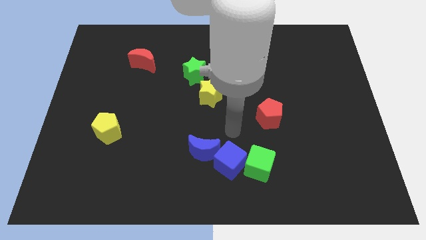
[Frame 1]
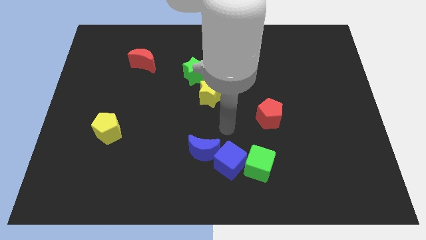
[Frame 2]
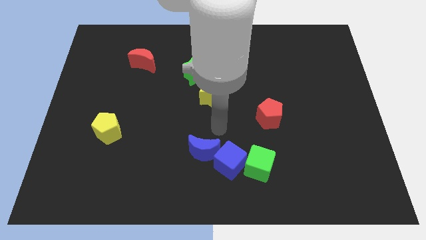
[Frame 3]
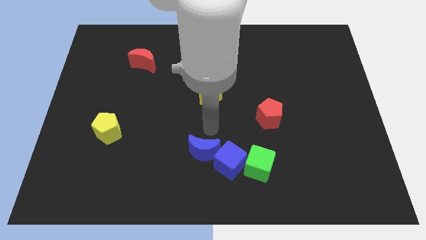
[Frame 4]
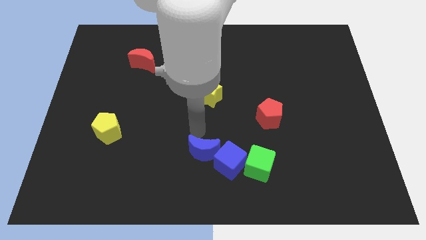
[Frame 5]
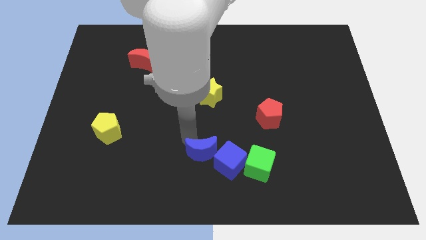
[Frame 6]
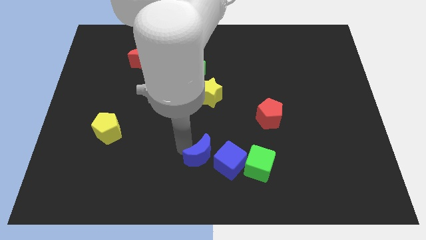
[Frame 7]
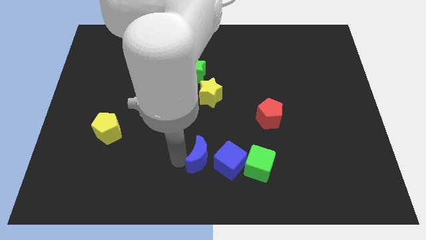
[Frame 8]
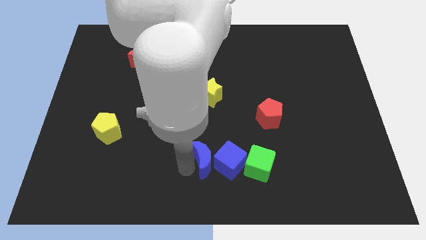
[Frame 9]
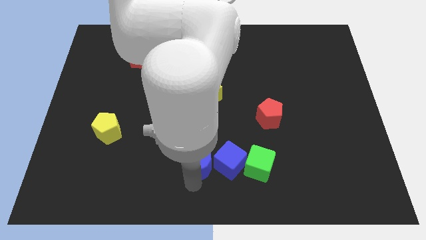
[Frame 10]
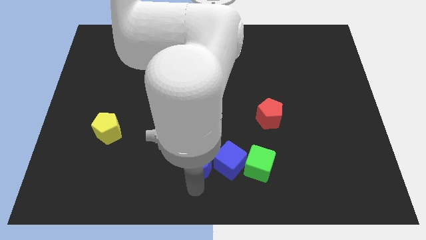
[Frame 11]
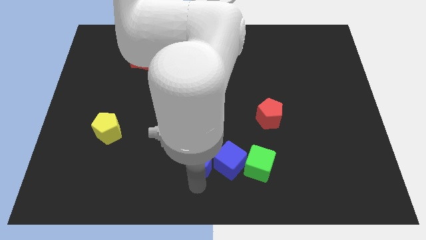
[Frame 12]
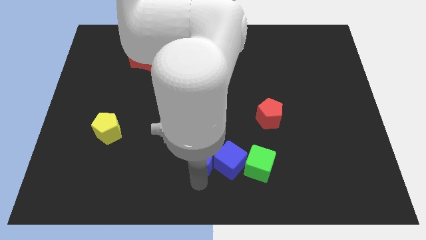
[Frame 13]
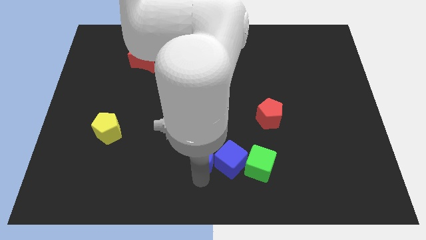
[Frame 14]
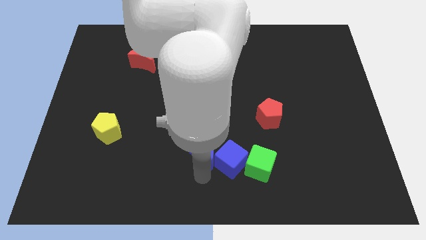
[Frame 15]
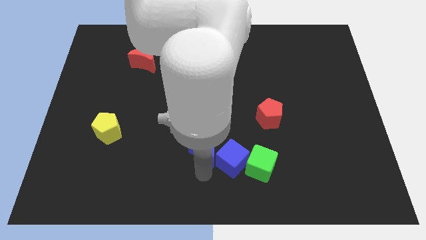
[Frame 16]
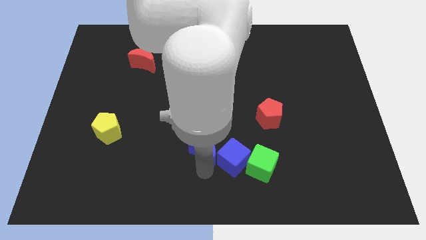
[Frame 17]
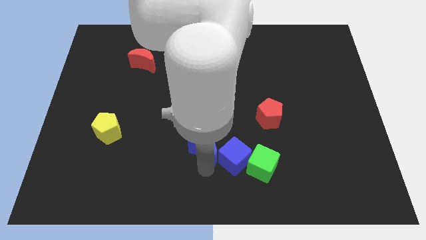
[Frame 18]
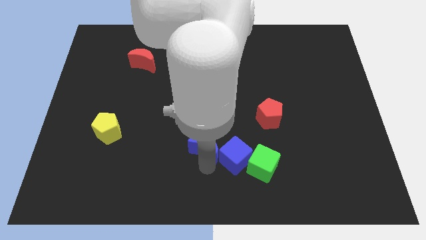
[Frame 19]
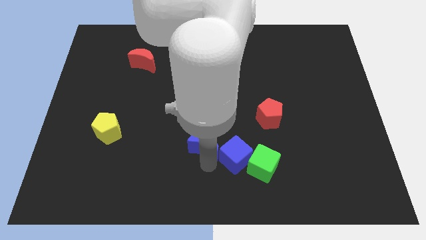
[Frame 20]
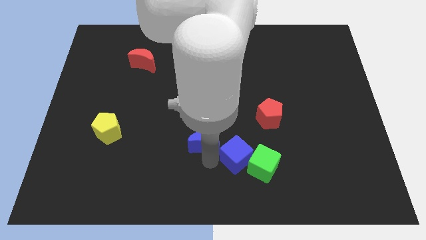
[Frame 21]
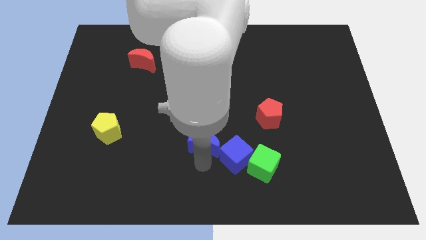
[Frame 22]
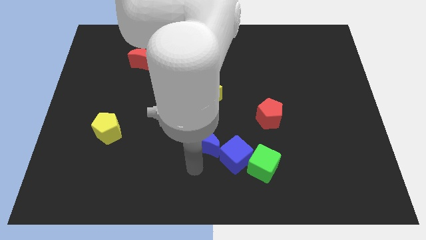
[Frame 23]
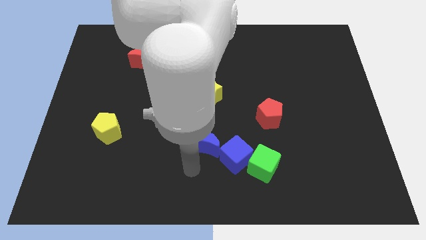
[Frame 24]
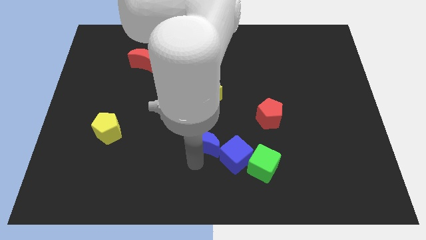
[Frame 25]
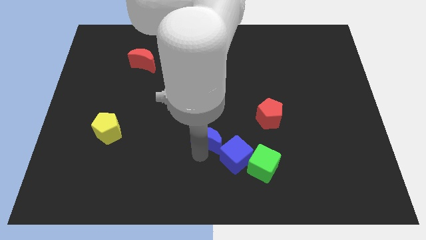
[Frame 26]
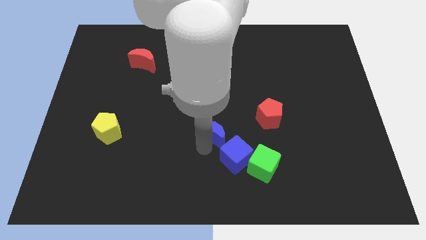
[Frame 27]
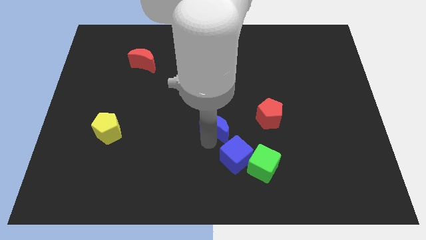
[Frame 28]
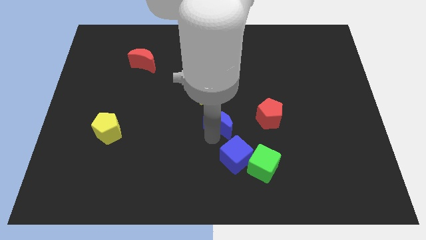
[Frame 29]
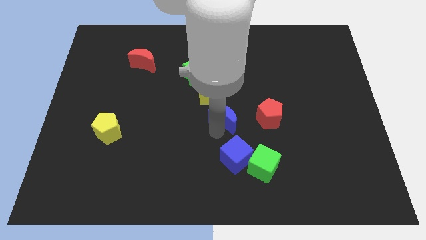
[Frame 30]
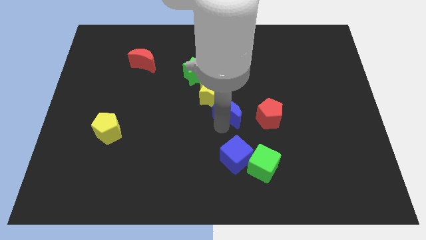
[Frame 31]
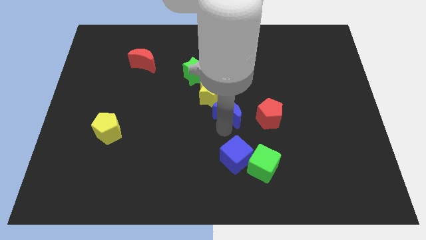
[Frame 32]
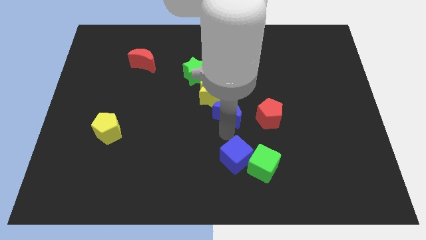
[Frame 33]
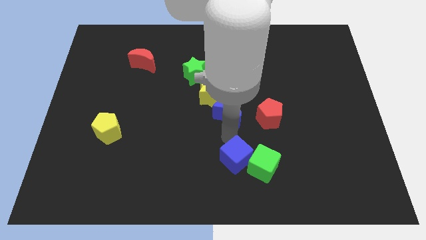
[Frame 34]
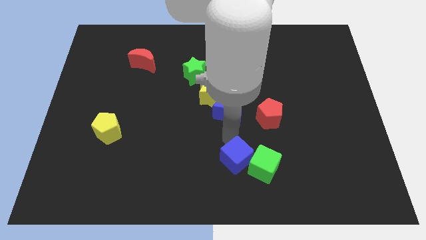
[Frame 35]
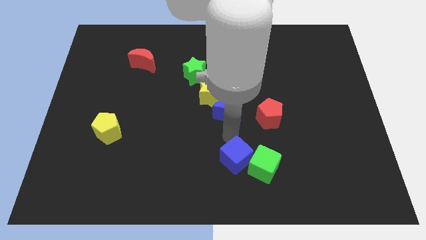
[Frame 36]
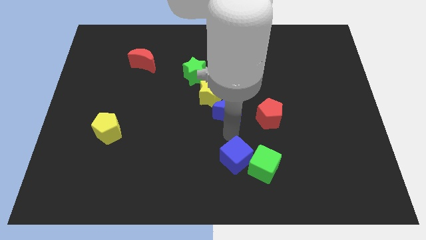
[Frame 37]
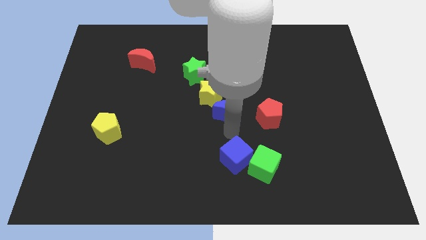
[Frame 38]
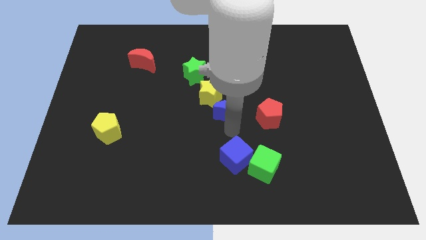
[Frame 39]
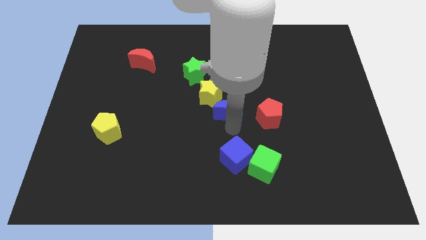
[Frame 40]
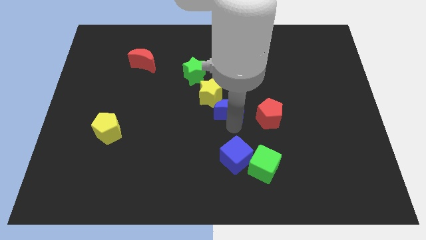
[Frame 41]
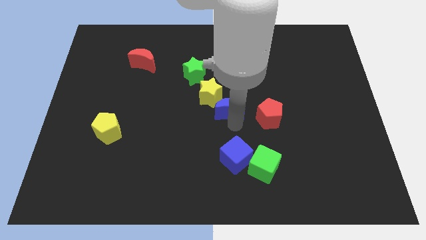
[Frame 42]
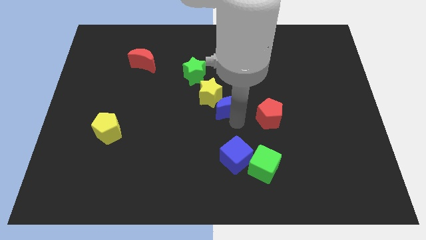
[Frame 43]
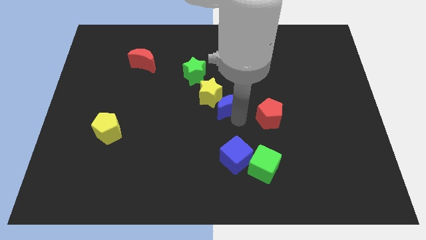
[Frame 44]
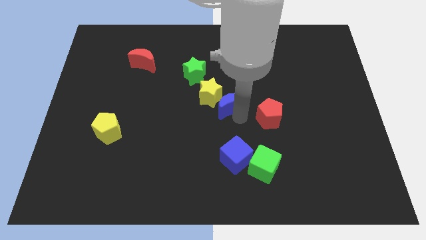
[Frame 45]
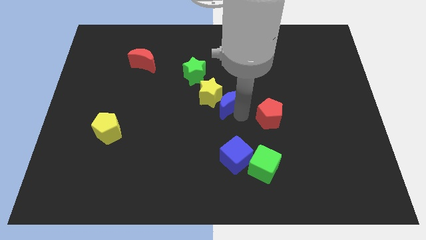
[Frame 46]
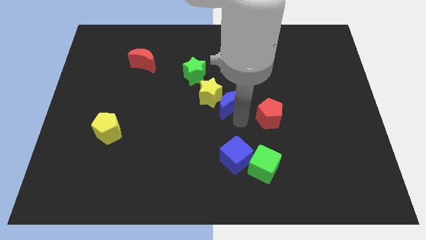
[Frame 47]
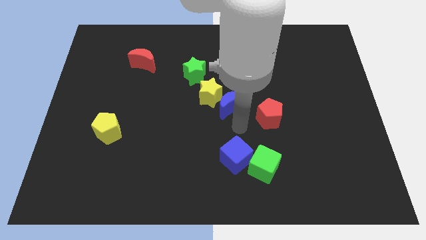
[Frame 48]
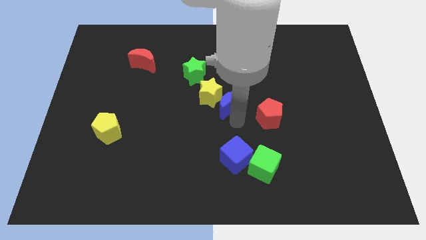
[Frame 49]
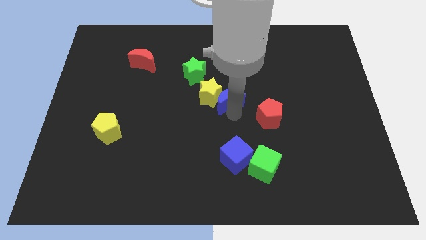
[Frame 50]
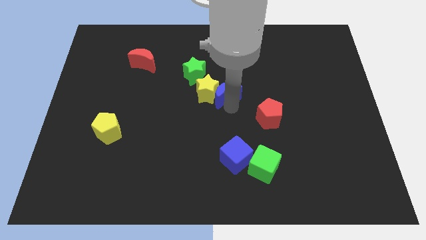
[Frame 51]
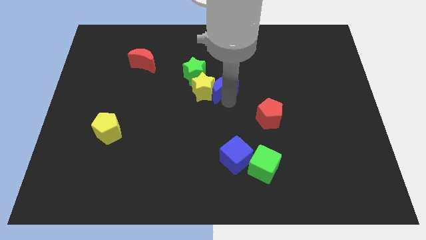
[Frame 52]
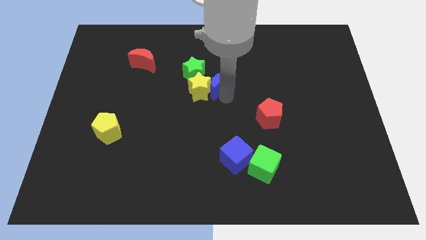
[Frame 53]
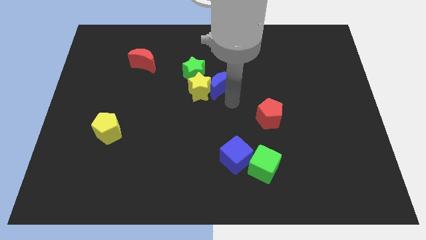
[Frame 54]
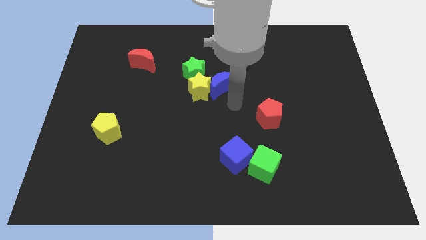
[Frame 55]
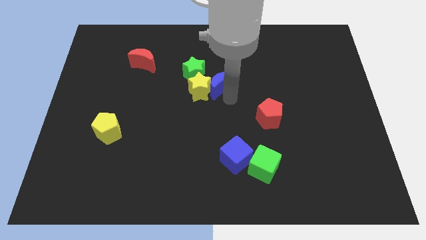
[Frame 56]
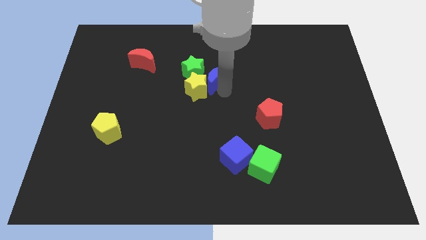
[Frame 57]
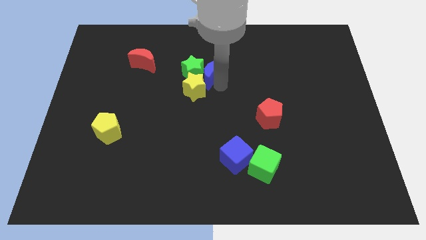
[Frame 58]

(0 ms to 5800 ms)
move the blue moon to the top side of the yellow star

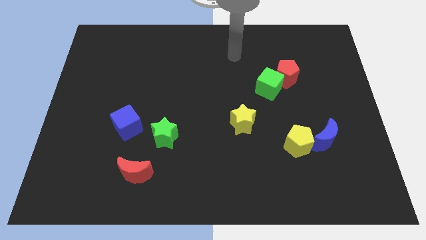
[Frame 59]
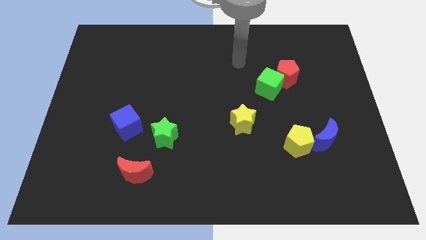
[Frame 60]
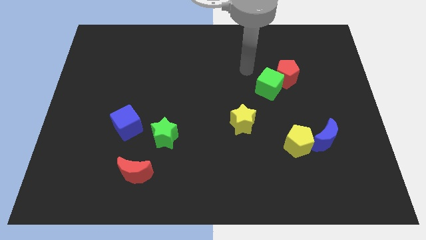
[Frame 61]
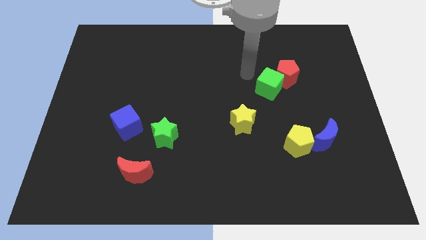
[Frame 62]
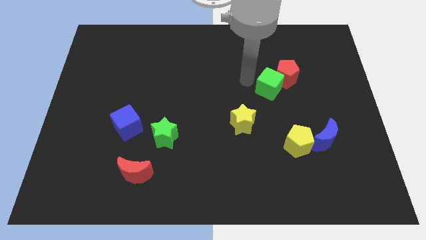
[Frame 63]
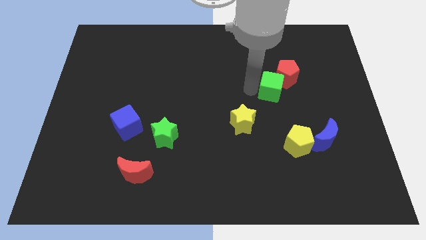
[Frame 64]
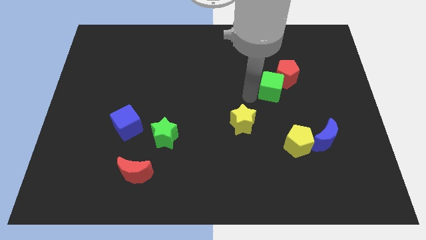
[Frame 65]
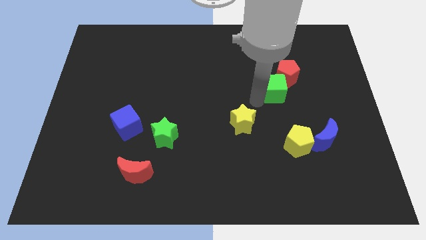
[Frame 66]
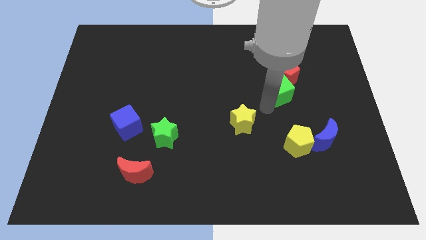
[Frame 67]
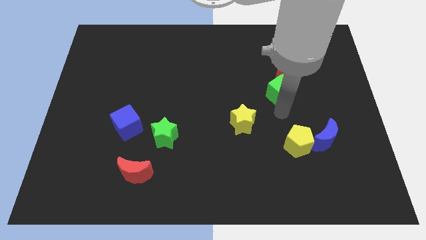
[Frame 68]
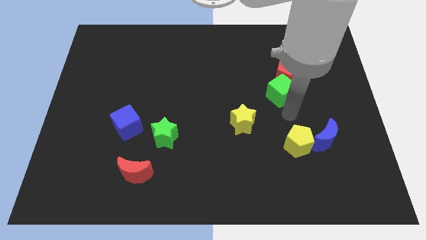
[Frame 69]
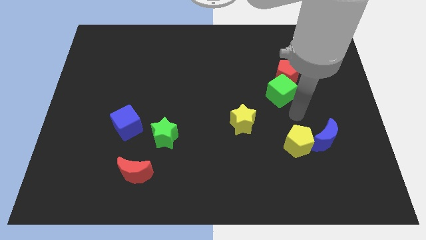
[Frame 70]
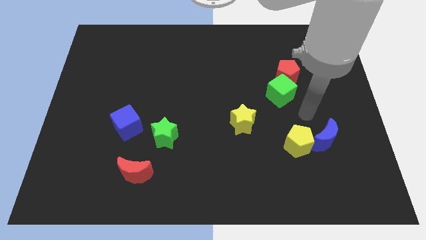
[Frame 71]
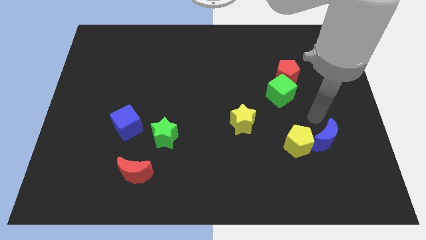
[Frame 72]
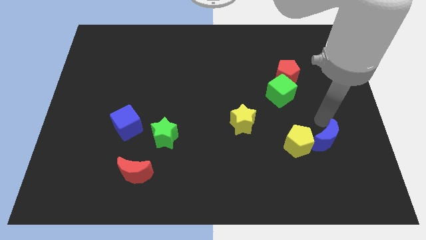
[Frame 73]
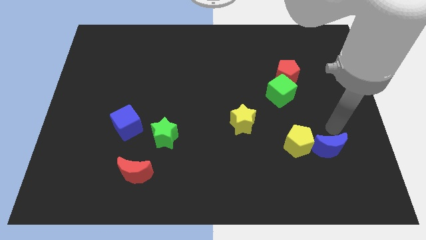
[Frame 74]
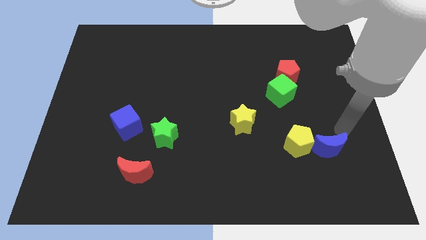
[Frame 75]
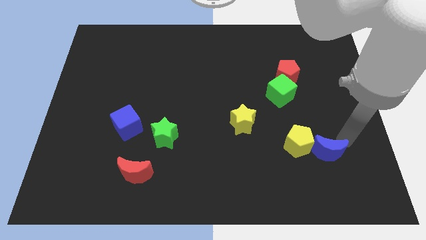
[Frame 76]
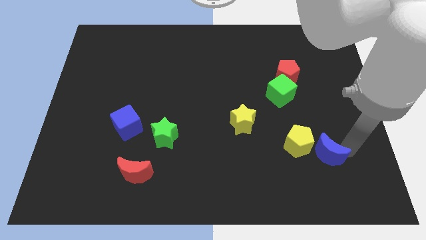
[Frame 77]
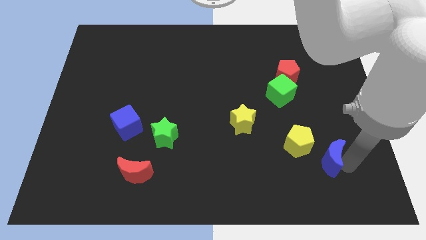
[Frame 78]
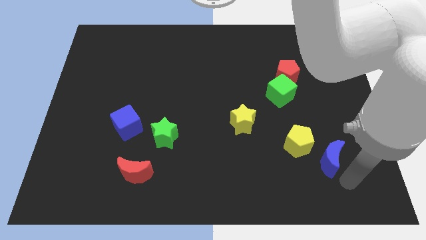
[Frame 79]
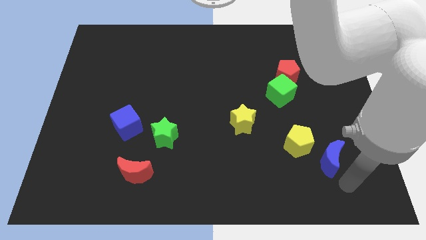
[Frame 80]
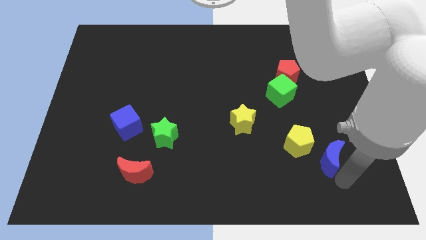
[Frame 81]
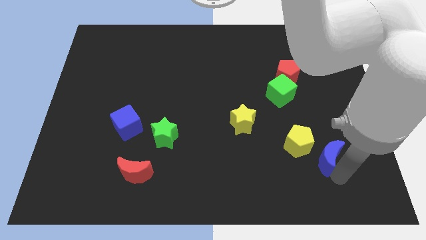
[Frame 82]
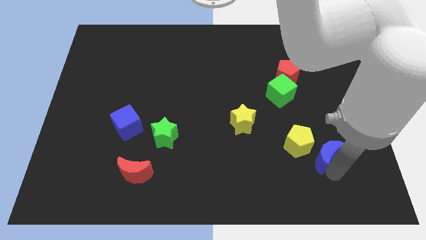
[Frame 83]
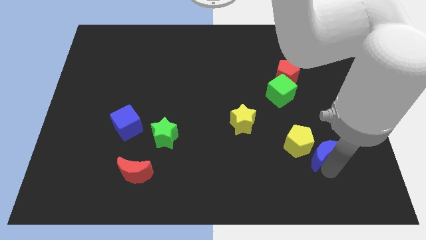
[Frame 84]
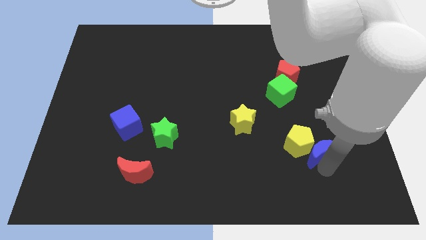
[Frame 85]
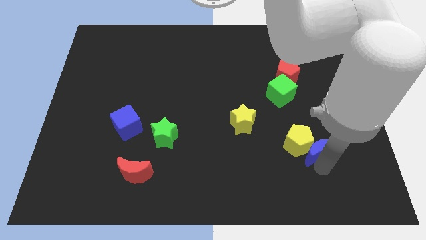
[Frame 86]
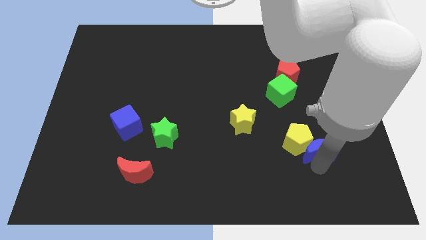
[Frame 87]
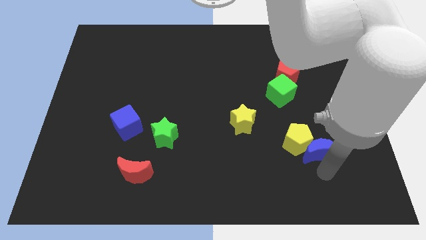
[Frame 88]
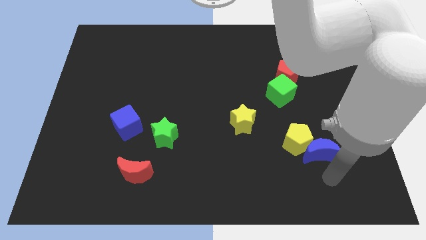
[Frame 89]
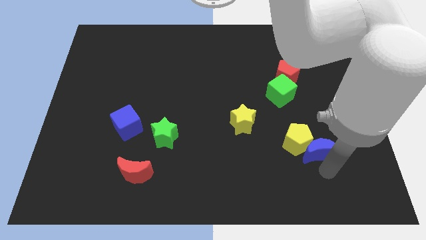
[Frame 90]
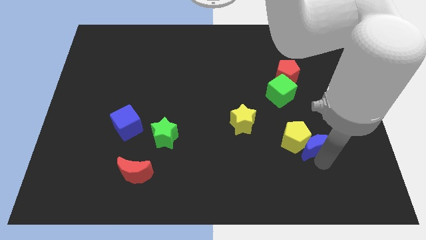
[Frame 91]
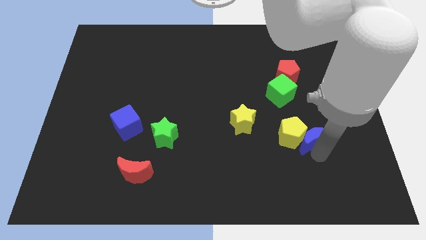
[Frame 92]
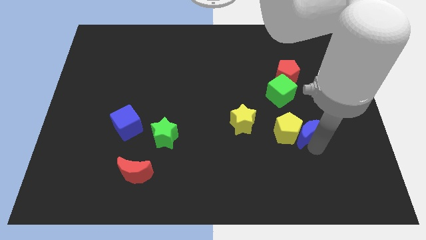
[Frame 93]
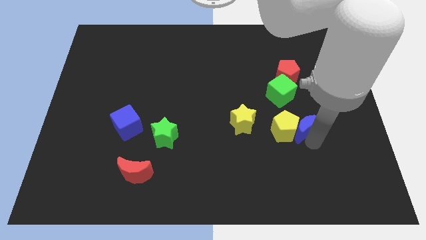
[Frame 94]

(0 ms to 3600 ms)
slide the blue moon to the bottom right of the green cube
